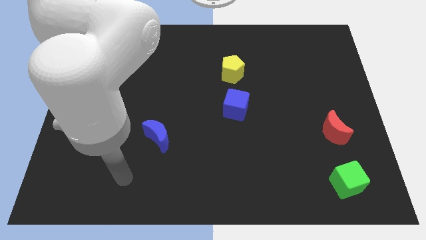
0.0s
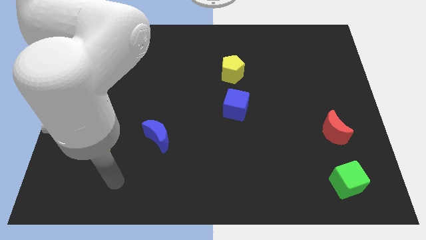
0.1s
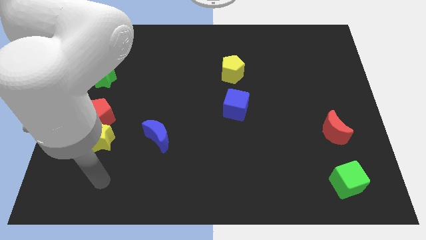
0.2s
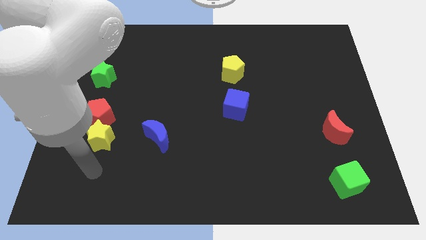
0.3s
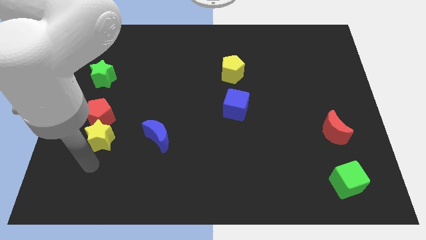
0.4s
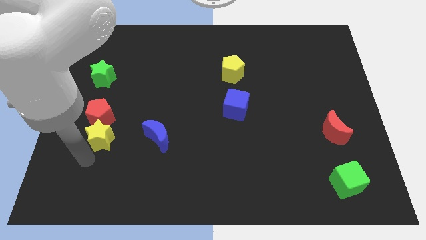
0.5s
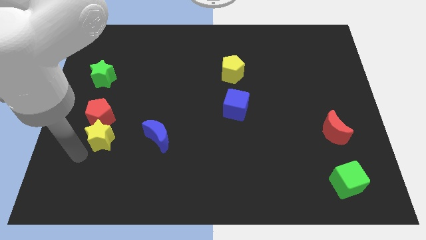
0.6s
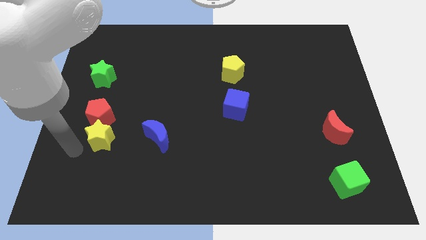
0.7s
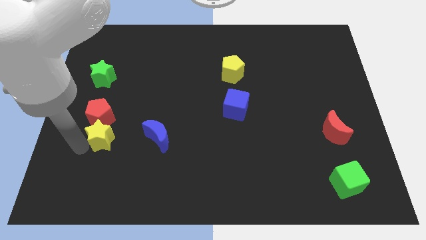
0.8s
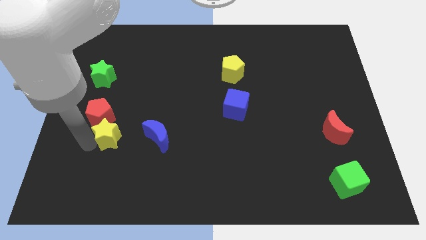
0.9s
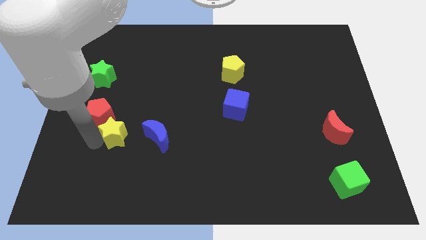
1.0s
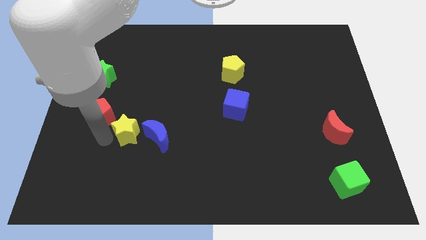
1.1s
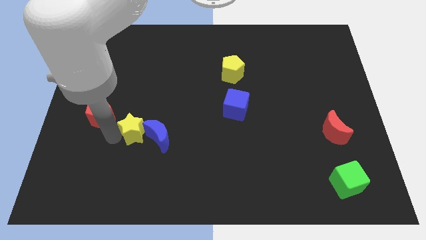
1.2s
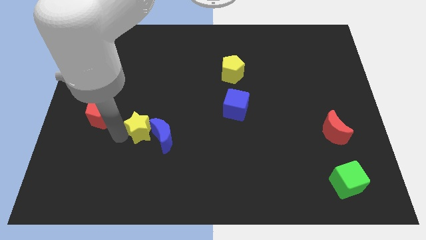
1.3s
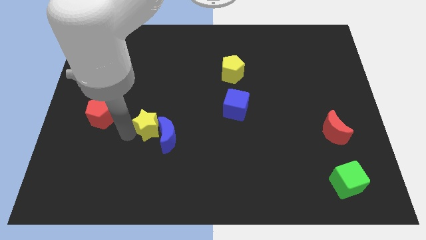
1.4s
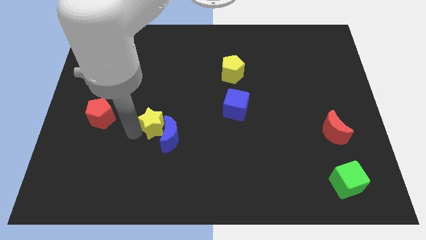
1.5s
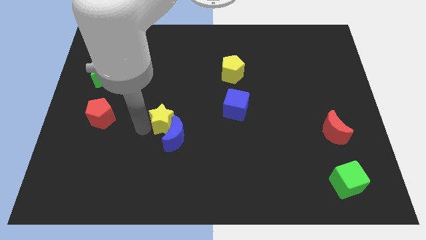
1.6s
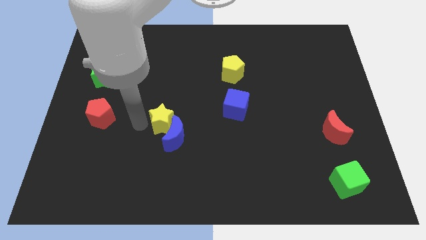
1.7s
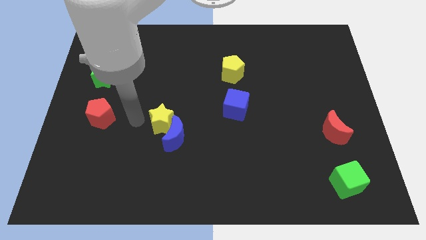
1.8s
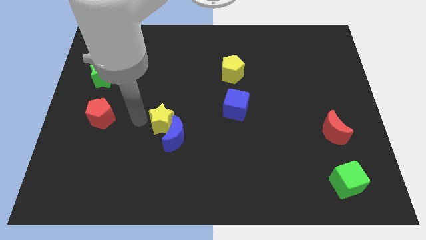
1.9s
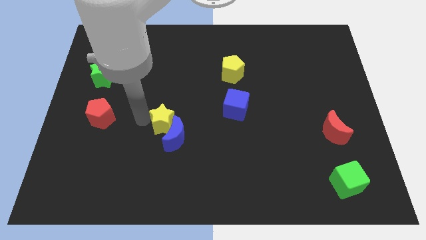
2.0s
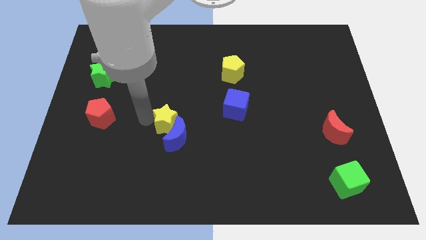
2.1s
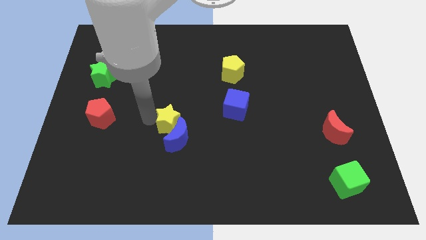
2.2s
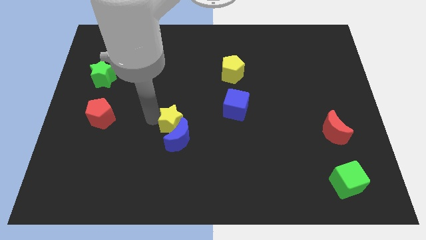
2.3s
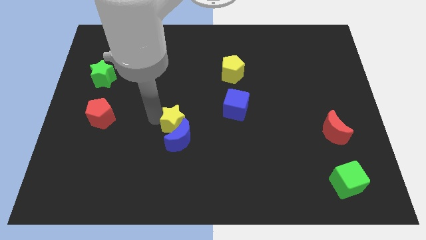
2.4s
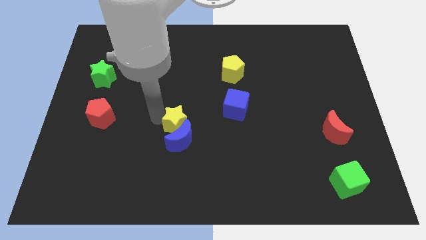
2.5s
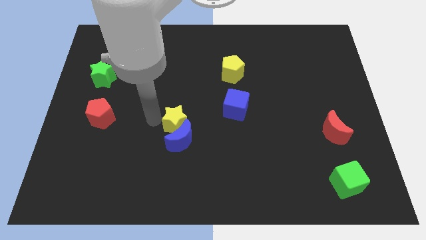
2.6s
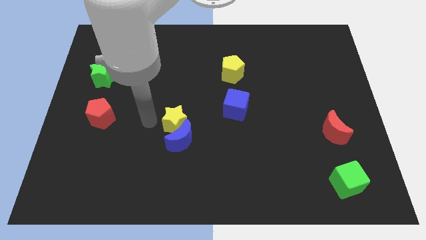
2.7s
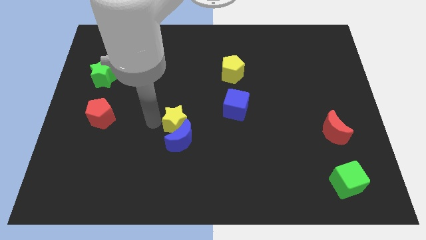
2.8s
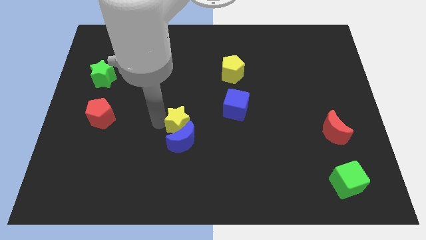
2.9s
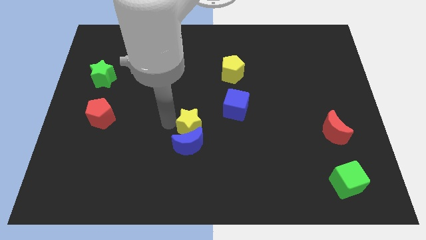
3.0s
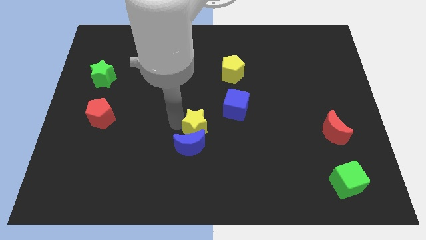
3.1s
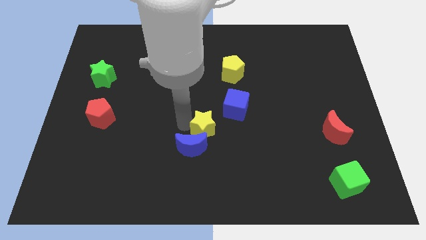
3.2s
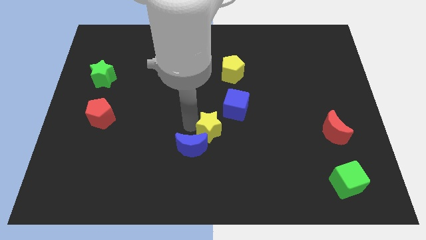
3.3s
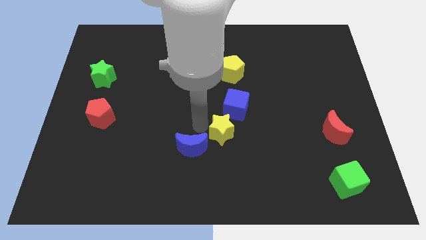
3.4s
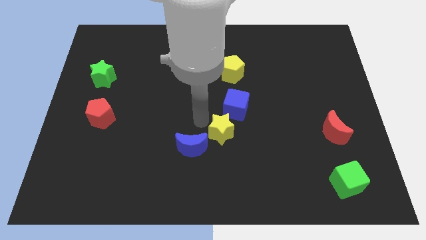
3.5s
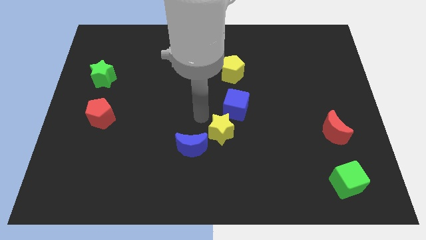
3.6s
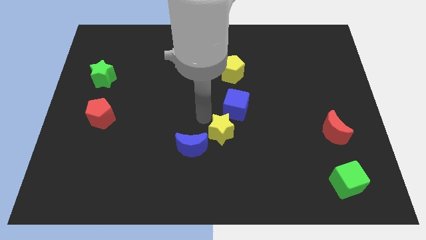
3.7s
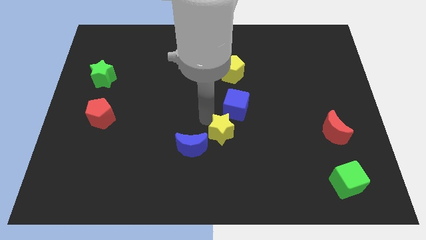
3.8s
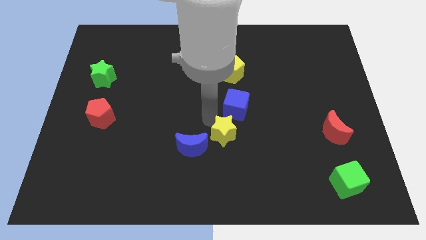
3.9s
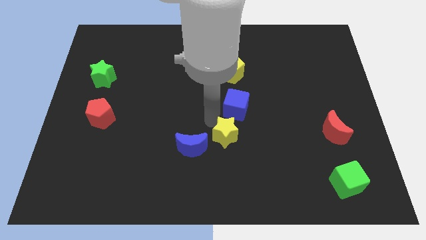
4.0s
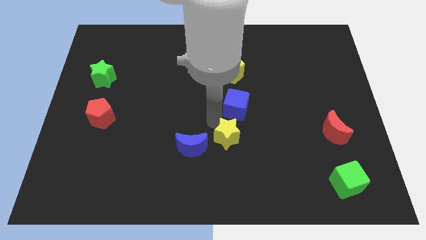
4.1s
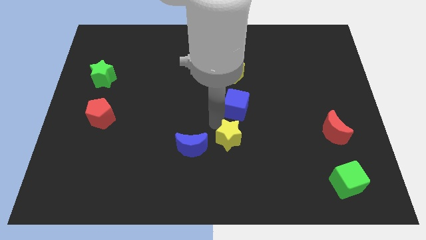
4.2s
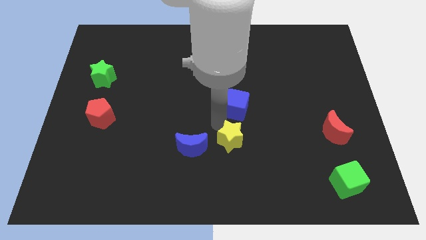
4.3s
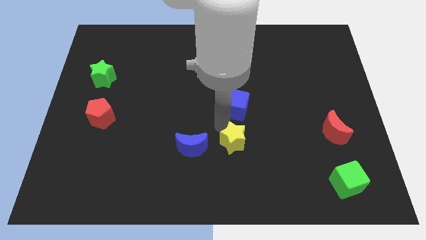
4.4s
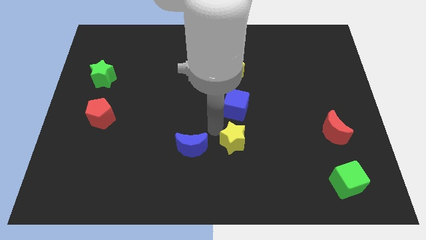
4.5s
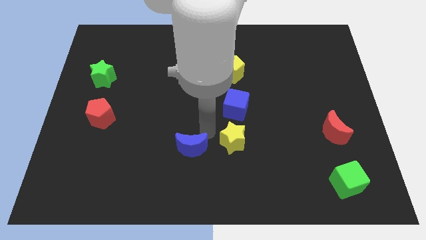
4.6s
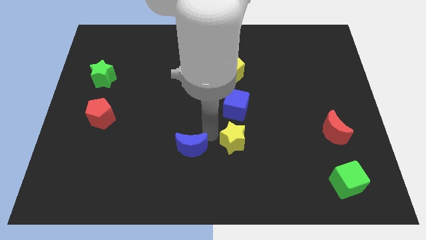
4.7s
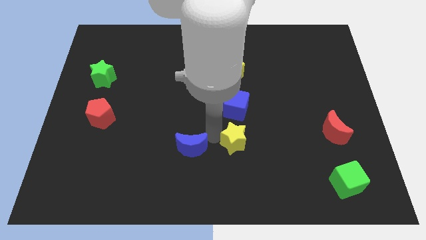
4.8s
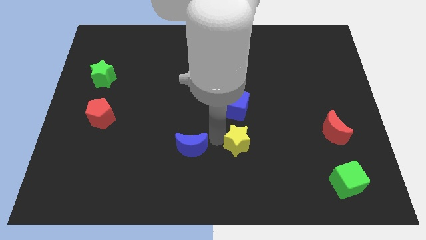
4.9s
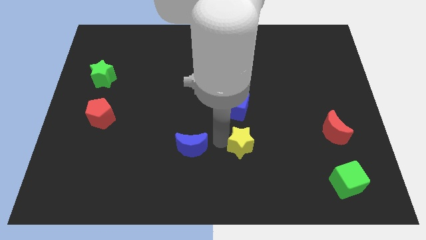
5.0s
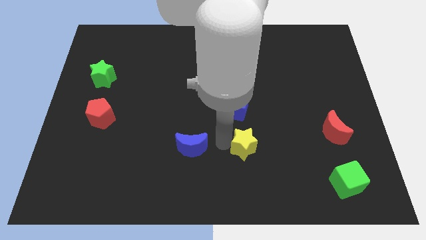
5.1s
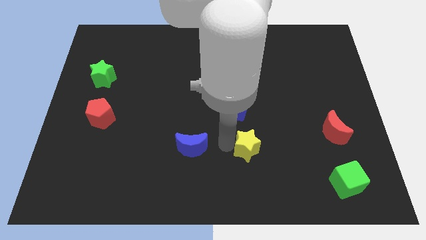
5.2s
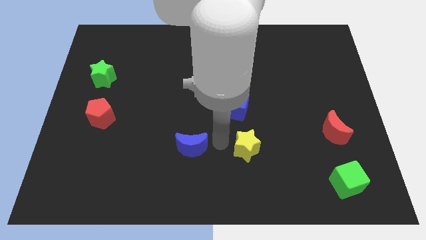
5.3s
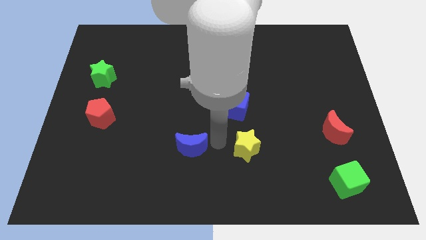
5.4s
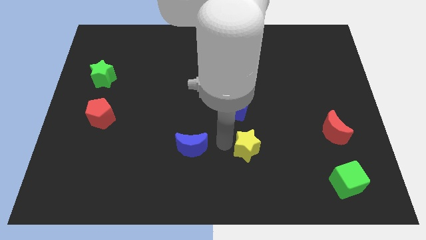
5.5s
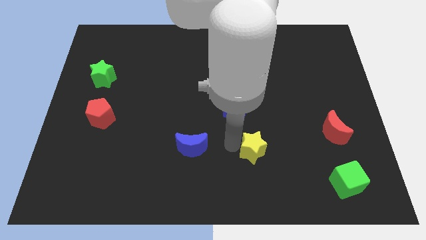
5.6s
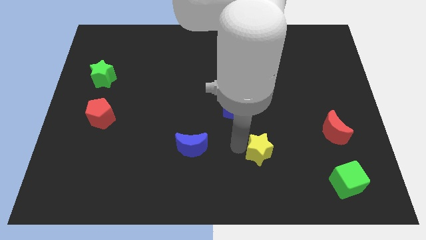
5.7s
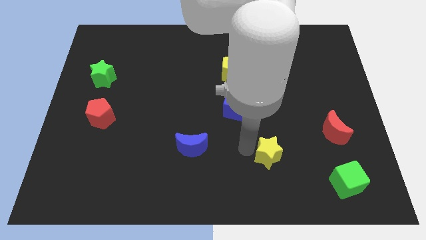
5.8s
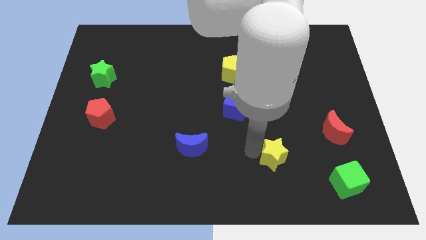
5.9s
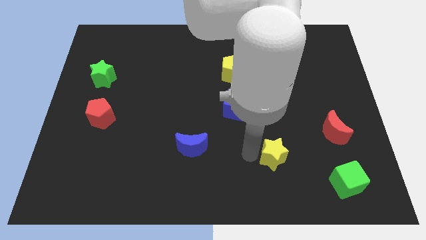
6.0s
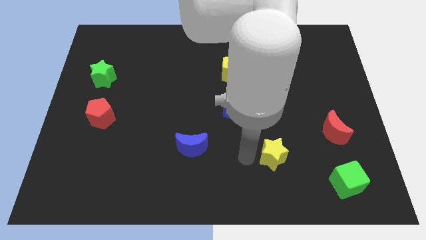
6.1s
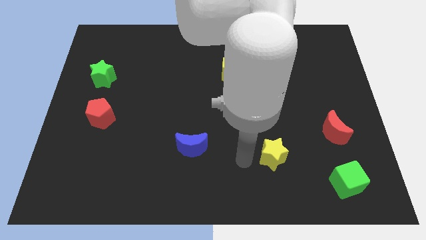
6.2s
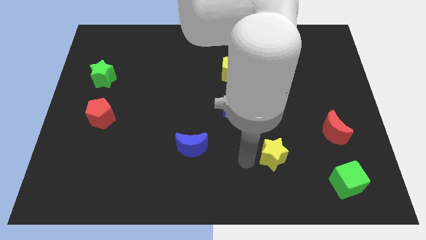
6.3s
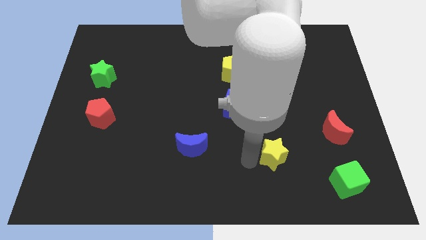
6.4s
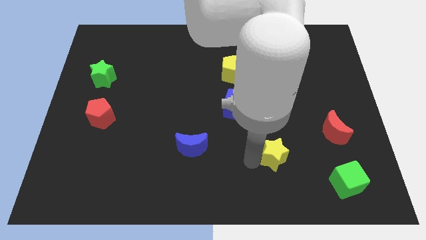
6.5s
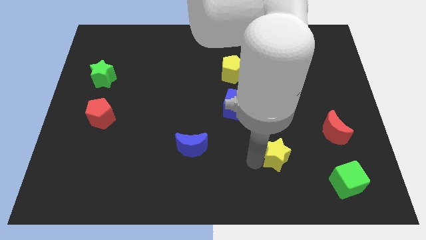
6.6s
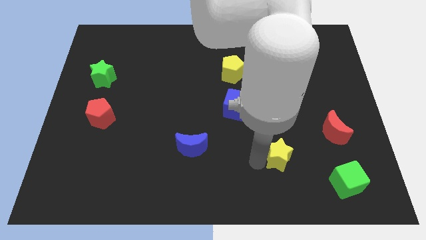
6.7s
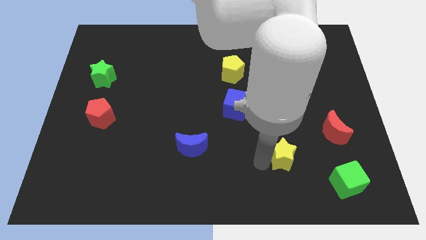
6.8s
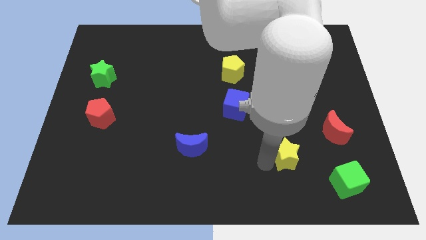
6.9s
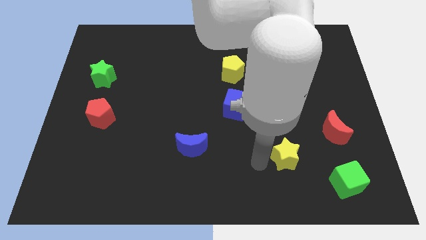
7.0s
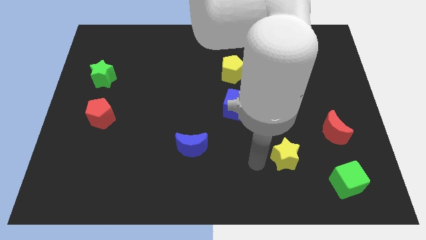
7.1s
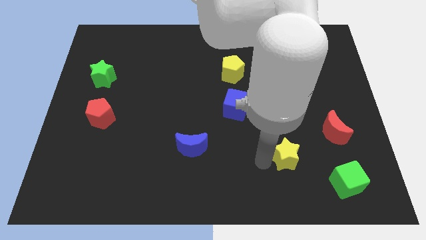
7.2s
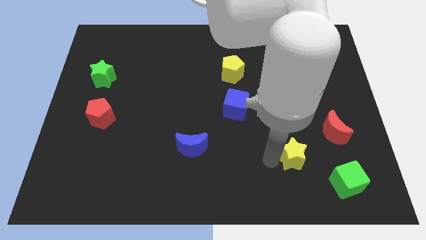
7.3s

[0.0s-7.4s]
slide the yellow star diagonally down and to the left of the red moon

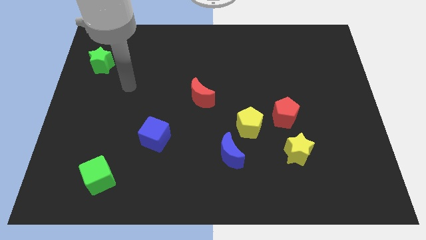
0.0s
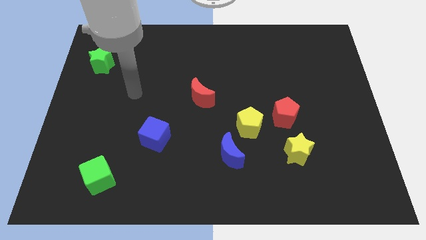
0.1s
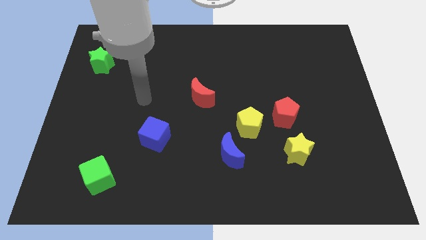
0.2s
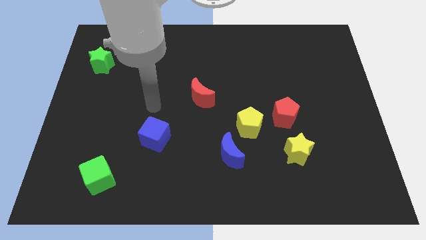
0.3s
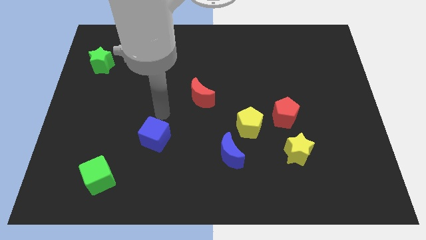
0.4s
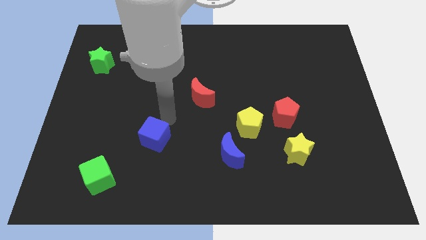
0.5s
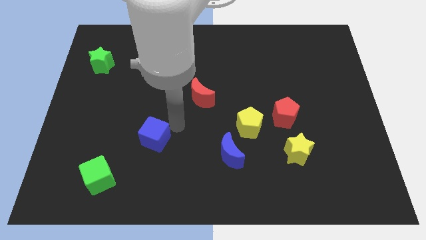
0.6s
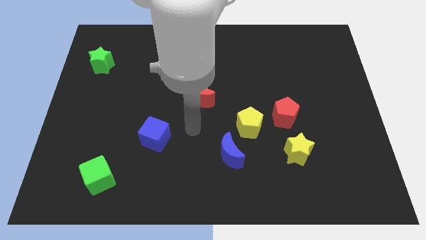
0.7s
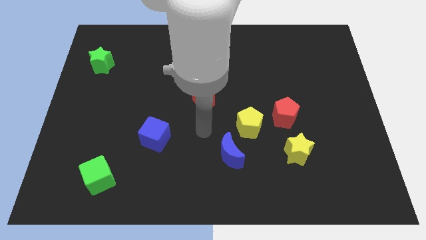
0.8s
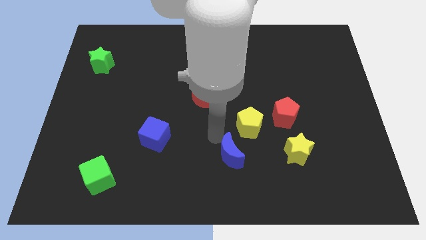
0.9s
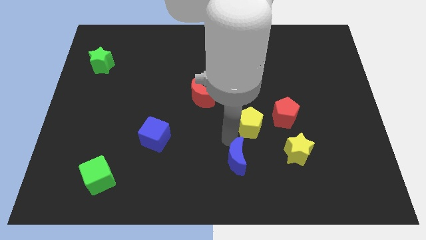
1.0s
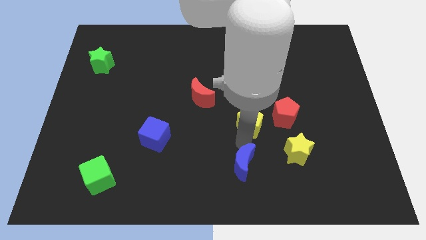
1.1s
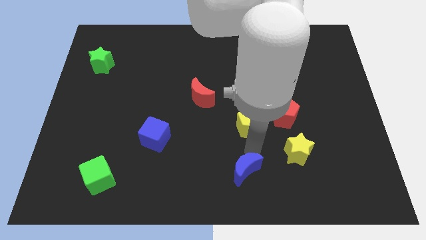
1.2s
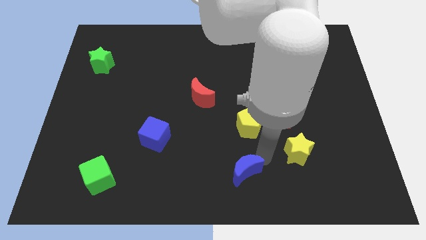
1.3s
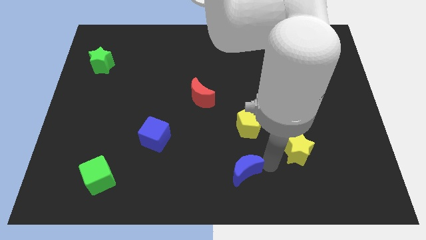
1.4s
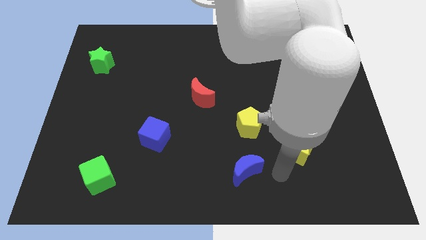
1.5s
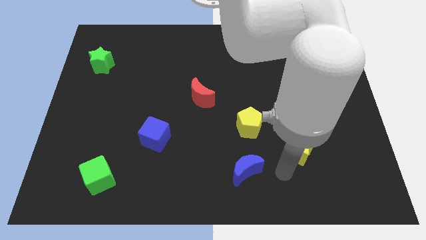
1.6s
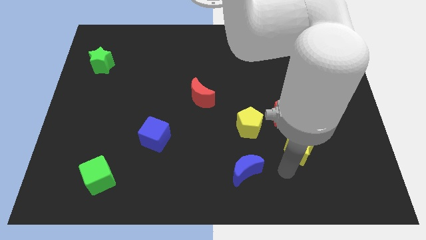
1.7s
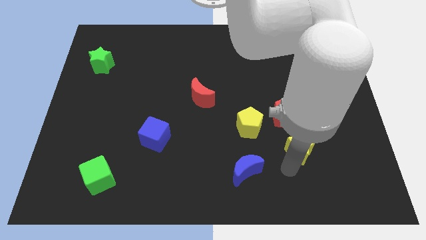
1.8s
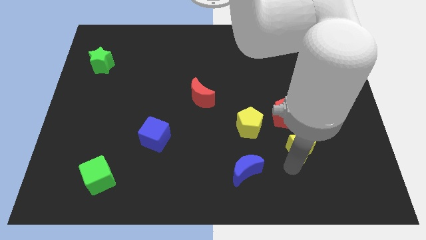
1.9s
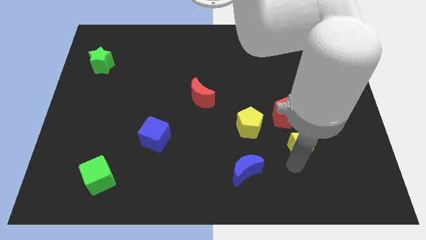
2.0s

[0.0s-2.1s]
slide the yellow star to the bottom right of the red pentagon
